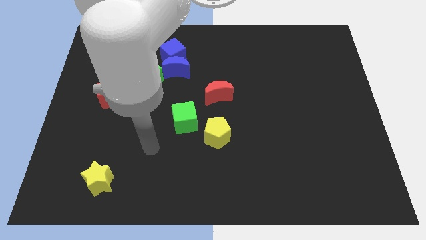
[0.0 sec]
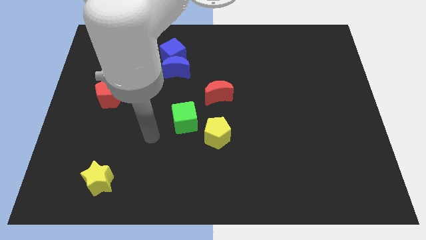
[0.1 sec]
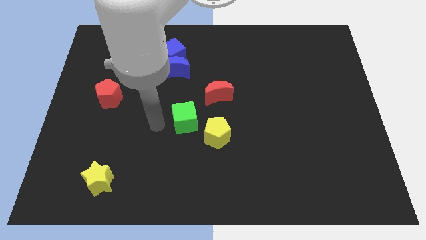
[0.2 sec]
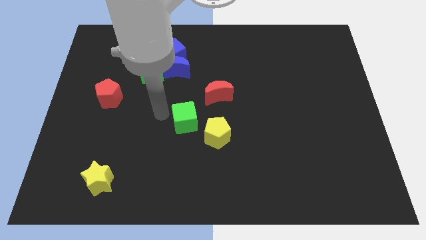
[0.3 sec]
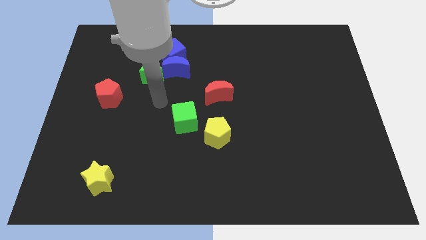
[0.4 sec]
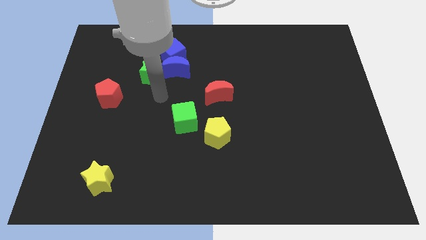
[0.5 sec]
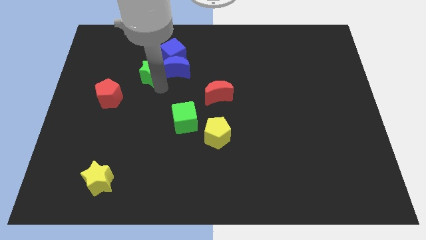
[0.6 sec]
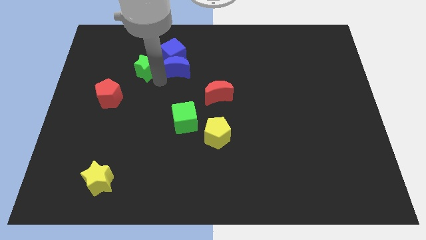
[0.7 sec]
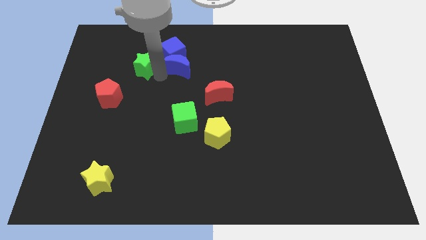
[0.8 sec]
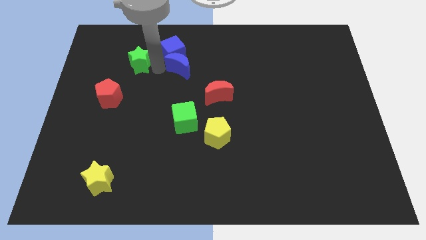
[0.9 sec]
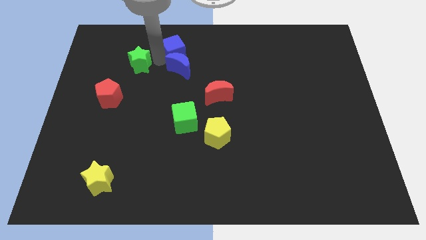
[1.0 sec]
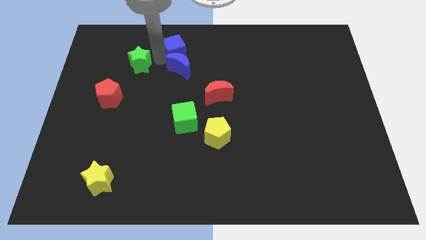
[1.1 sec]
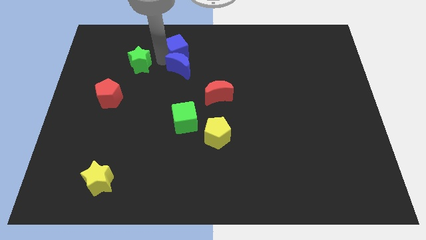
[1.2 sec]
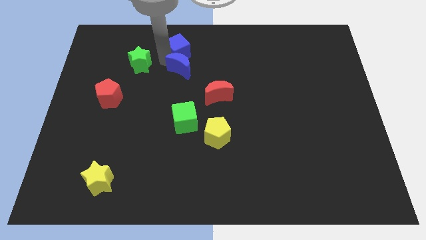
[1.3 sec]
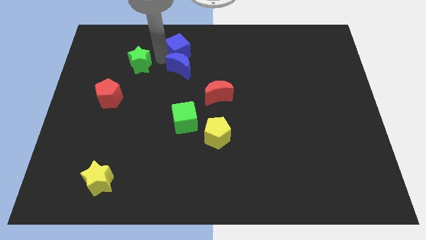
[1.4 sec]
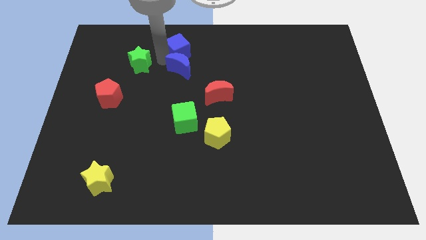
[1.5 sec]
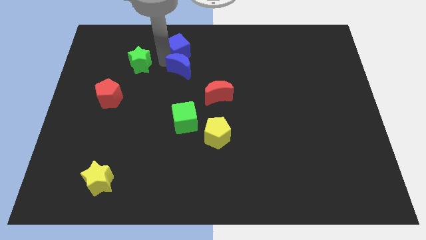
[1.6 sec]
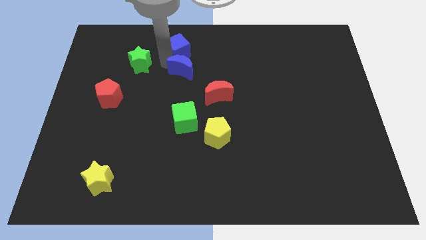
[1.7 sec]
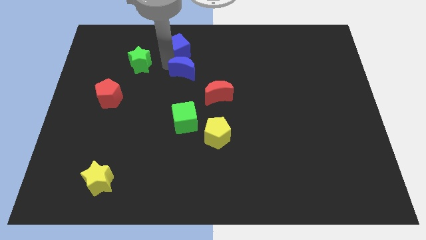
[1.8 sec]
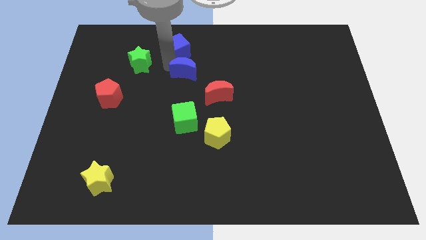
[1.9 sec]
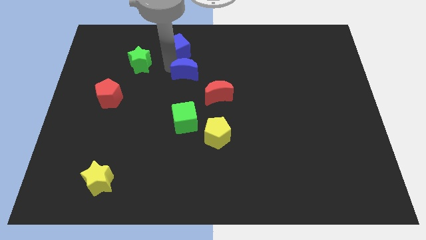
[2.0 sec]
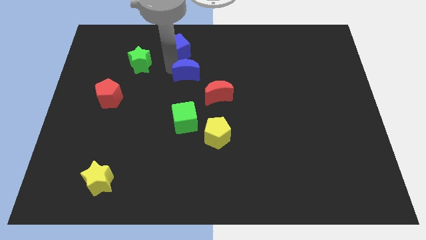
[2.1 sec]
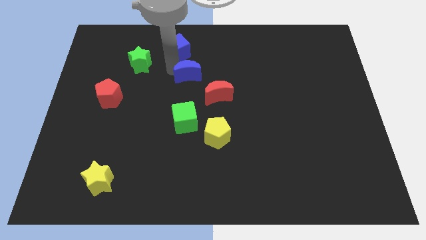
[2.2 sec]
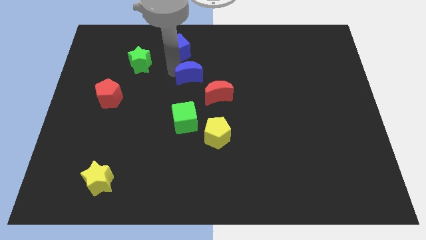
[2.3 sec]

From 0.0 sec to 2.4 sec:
separate the blue moon from the blue cube and green star

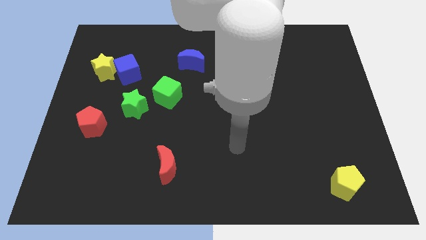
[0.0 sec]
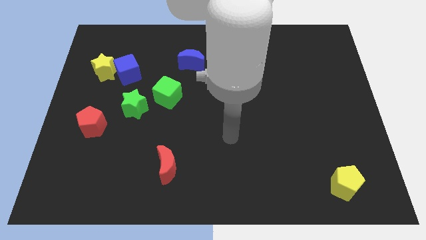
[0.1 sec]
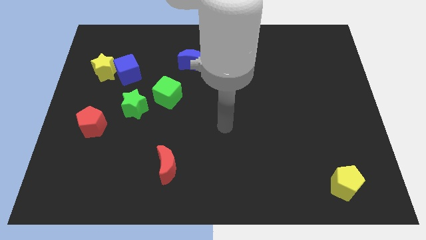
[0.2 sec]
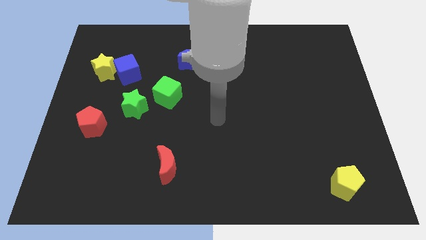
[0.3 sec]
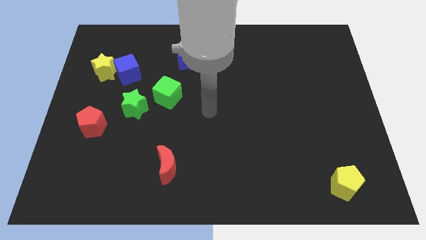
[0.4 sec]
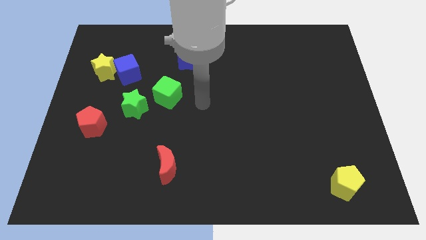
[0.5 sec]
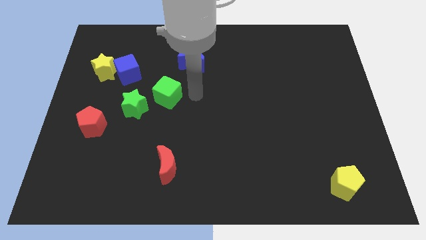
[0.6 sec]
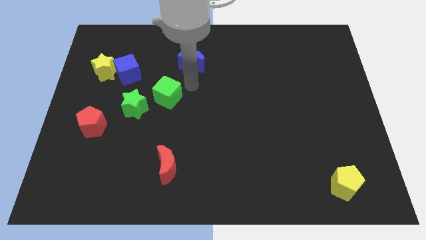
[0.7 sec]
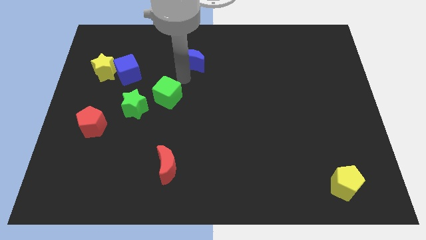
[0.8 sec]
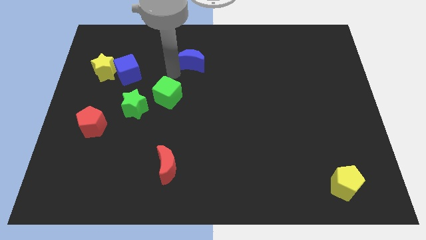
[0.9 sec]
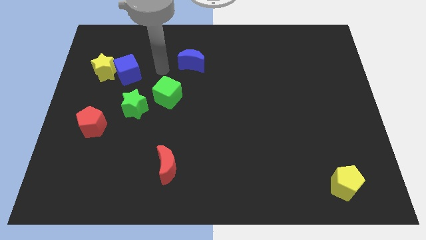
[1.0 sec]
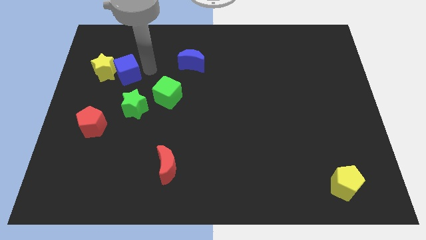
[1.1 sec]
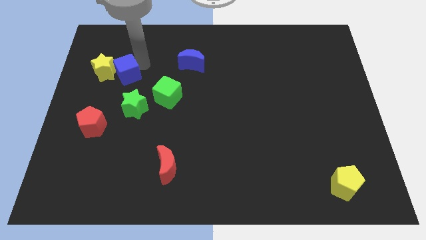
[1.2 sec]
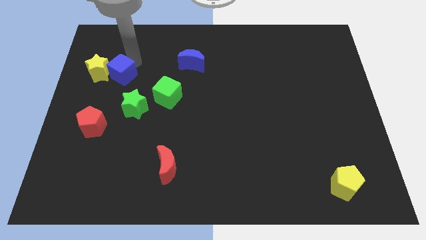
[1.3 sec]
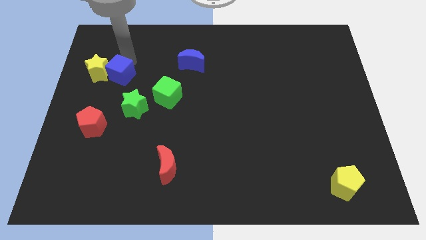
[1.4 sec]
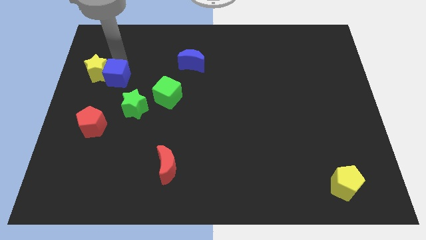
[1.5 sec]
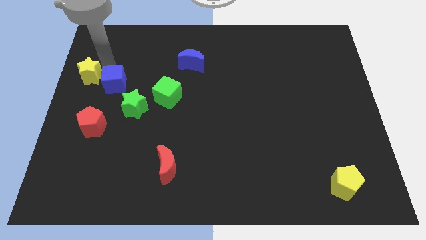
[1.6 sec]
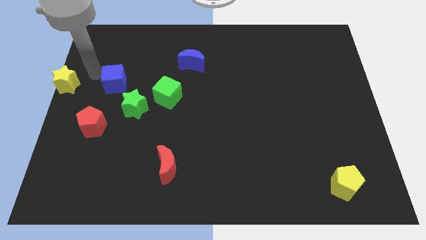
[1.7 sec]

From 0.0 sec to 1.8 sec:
move the blue cube away from the yellow star

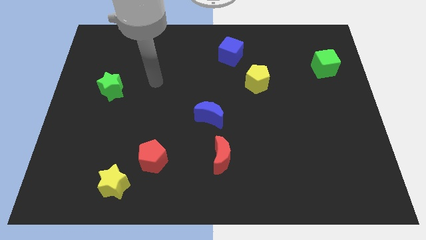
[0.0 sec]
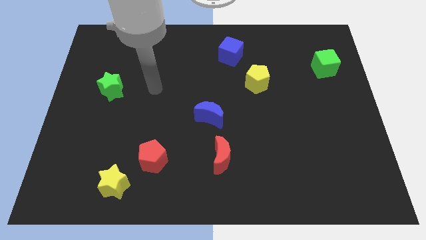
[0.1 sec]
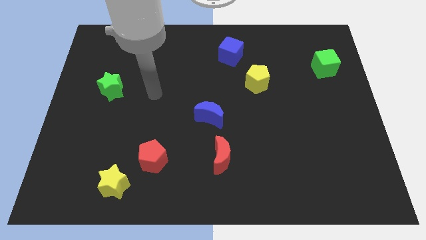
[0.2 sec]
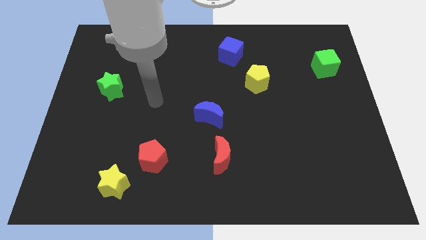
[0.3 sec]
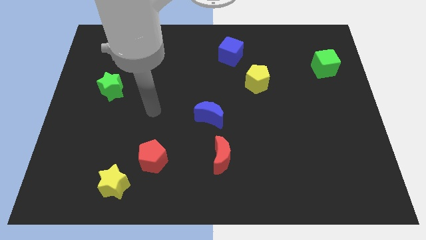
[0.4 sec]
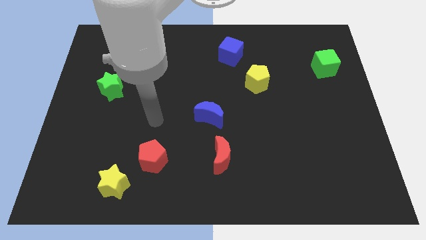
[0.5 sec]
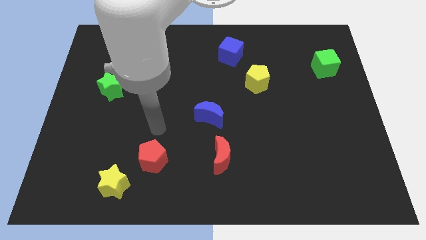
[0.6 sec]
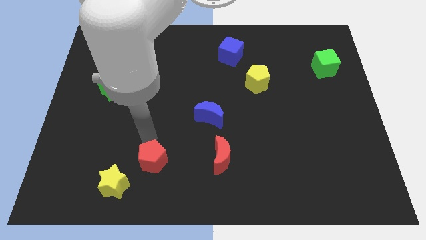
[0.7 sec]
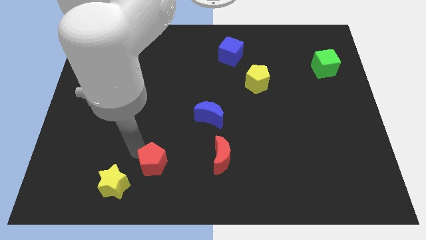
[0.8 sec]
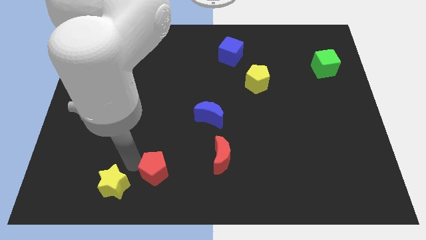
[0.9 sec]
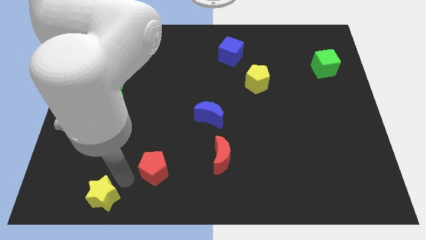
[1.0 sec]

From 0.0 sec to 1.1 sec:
move the red pentagon away from the yellow star

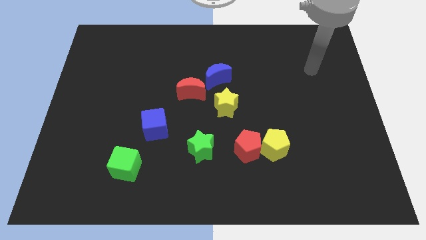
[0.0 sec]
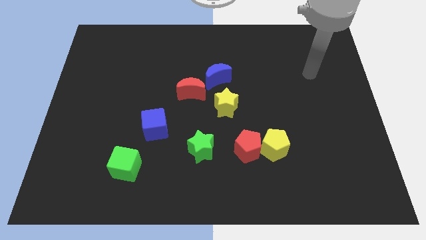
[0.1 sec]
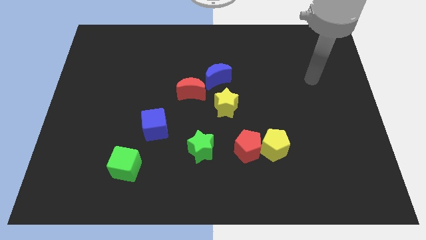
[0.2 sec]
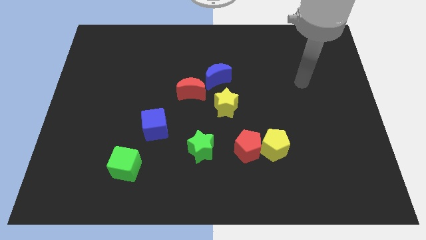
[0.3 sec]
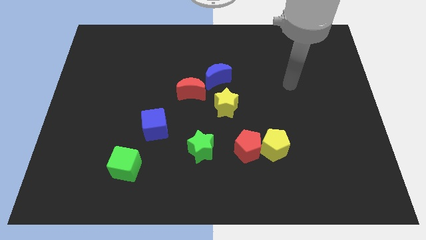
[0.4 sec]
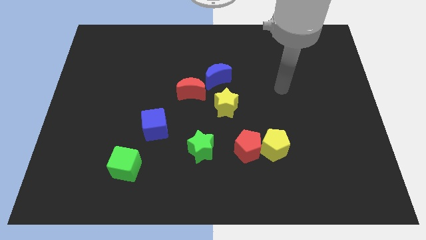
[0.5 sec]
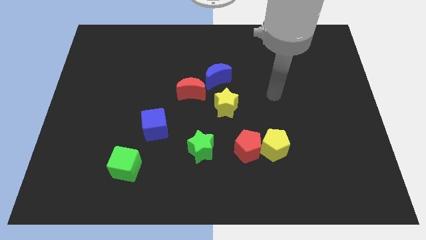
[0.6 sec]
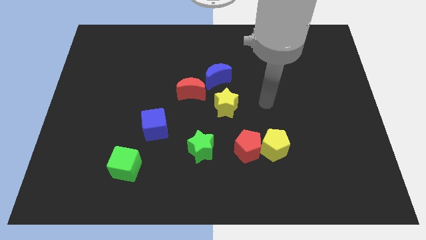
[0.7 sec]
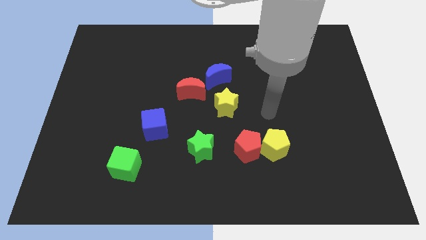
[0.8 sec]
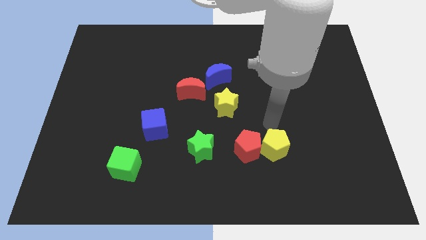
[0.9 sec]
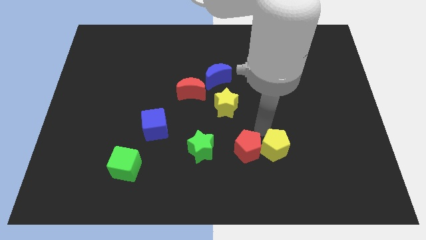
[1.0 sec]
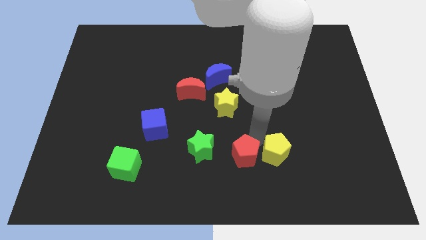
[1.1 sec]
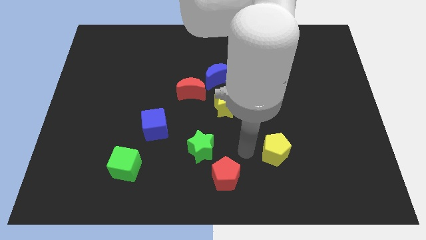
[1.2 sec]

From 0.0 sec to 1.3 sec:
move the yellow pentagon away from the red pentagon

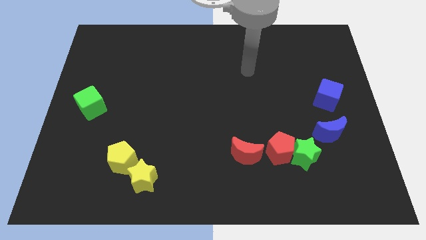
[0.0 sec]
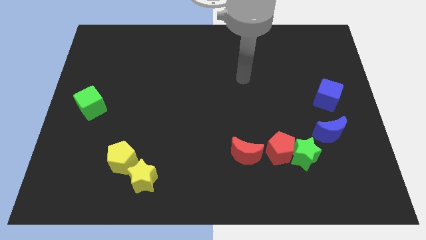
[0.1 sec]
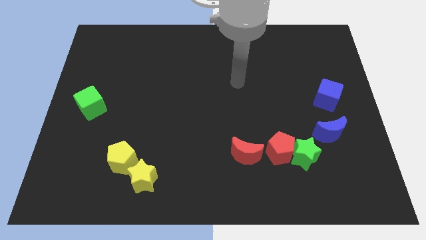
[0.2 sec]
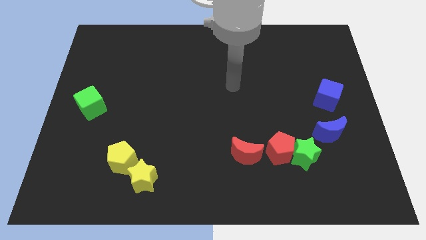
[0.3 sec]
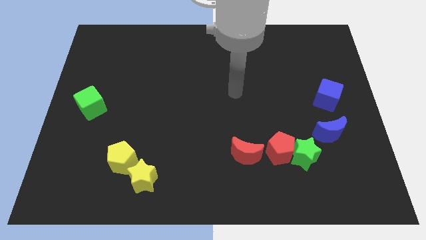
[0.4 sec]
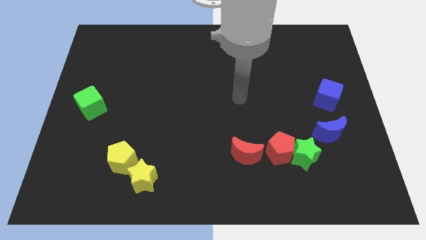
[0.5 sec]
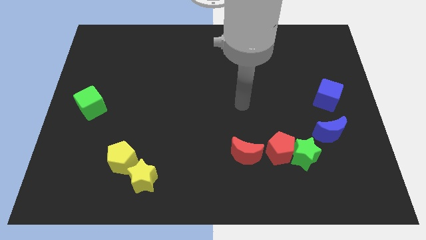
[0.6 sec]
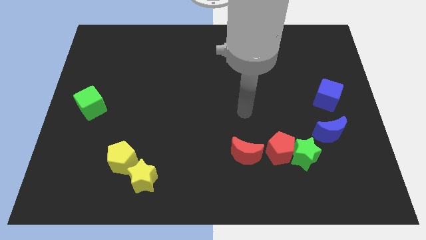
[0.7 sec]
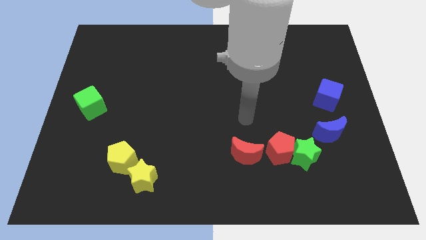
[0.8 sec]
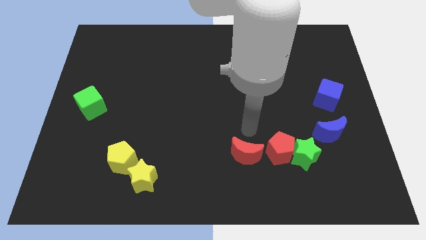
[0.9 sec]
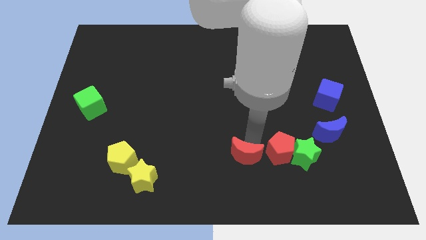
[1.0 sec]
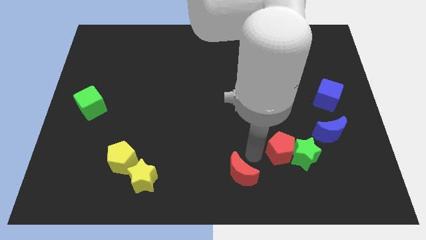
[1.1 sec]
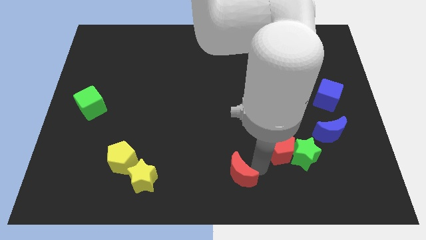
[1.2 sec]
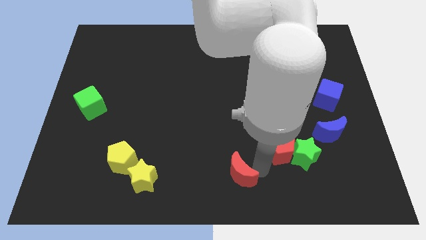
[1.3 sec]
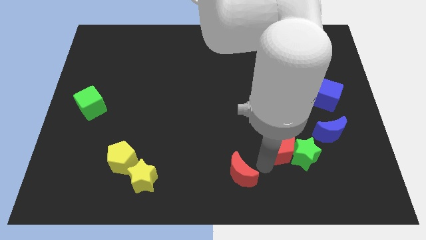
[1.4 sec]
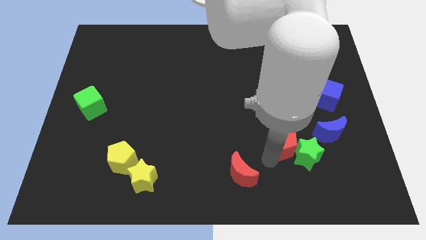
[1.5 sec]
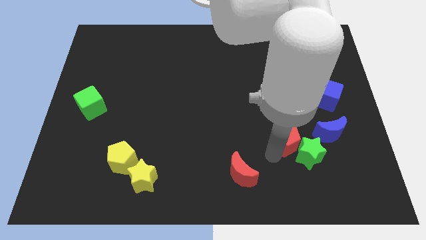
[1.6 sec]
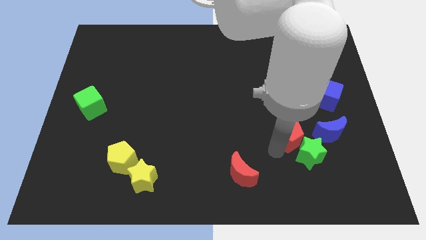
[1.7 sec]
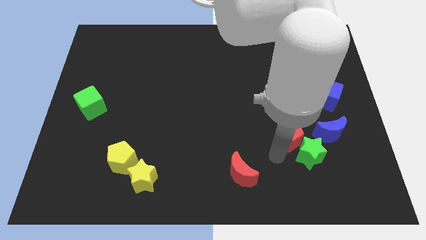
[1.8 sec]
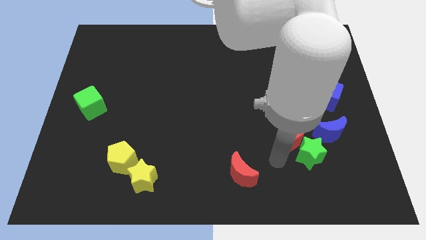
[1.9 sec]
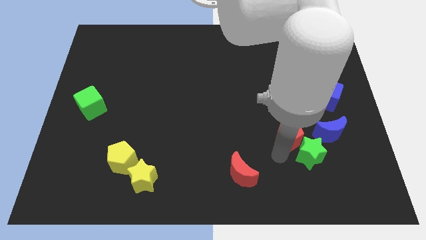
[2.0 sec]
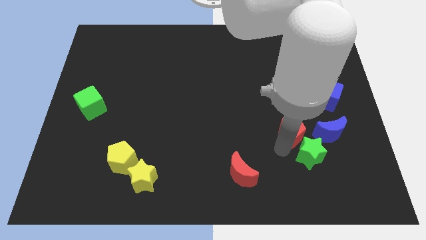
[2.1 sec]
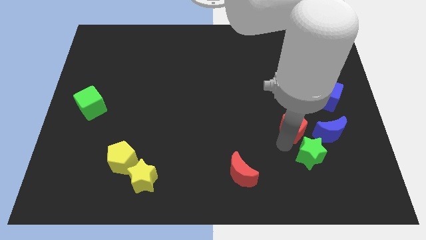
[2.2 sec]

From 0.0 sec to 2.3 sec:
pull the red pentagon apart from the green star and red moon

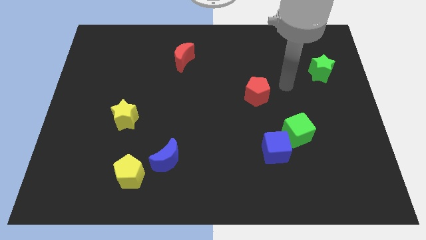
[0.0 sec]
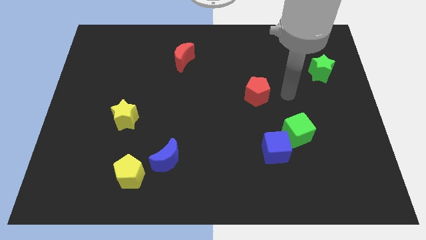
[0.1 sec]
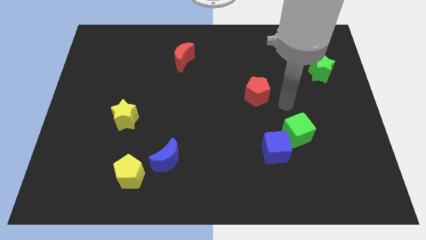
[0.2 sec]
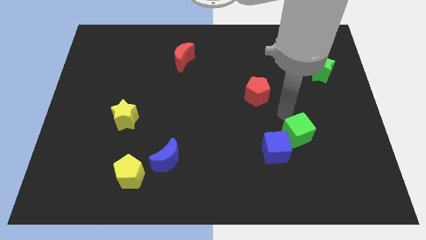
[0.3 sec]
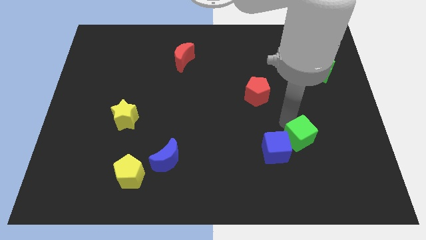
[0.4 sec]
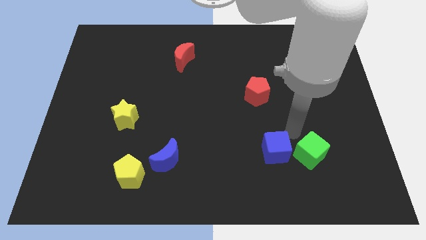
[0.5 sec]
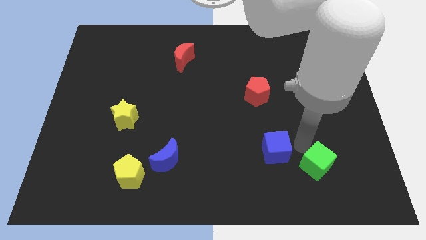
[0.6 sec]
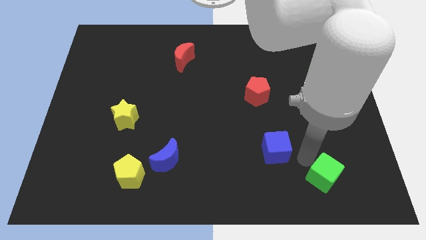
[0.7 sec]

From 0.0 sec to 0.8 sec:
pull the blue cube apart from the green cube
